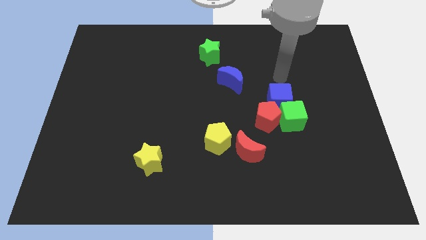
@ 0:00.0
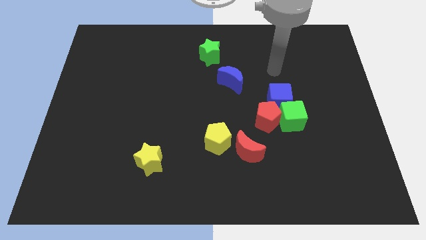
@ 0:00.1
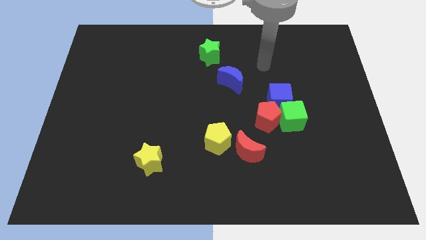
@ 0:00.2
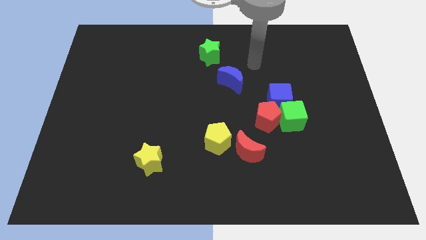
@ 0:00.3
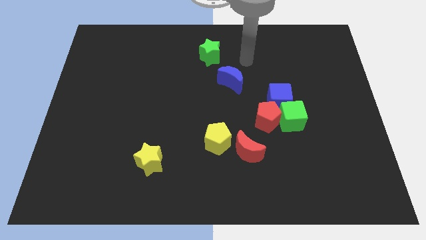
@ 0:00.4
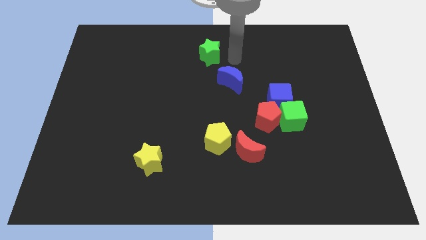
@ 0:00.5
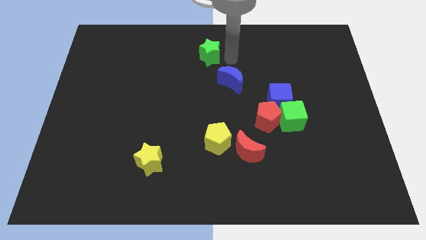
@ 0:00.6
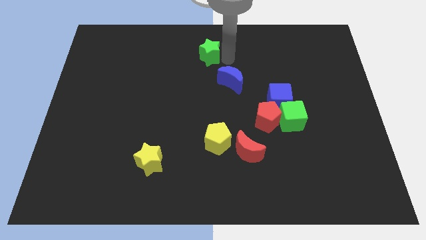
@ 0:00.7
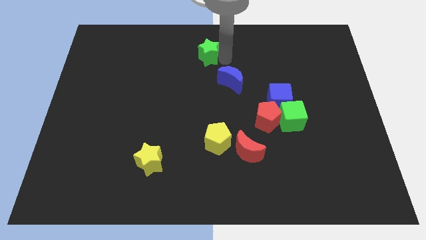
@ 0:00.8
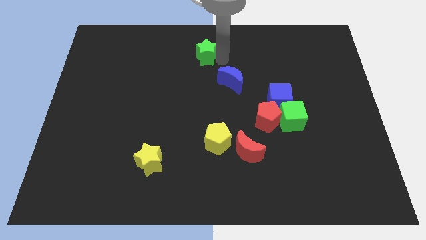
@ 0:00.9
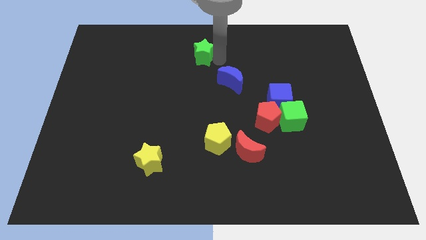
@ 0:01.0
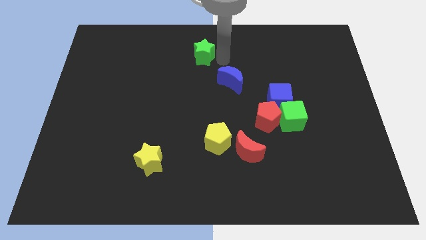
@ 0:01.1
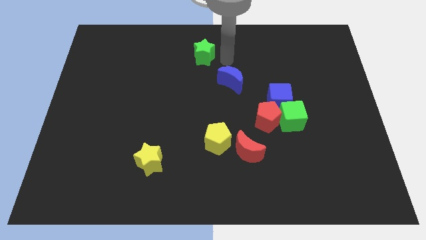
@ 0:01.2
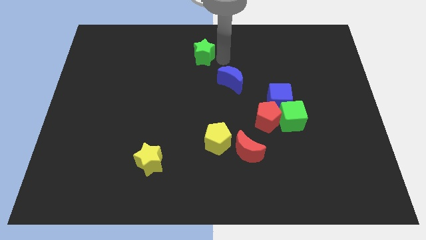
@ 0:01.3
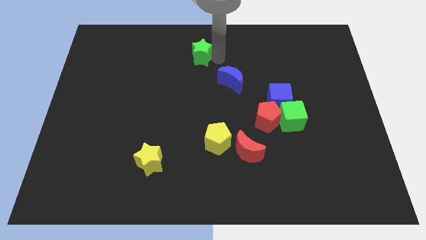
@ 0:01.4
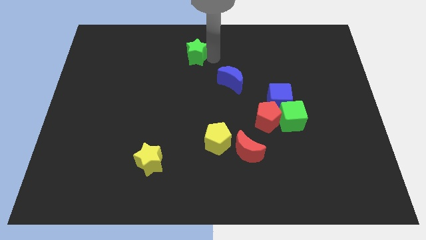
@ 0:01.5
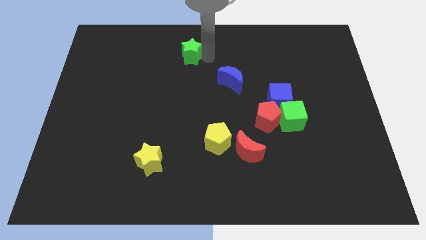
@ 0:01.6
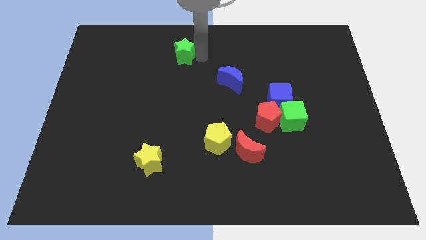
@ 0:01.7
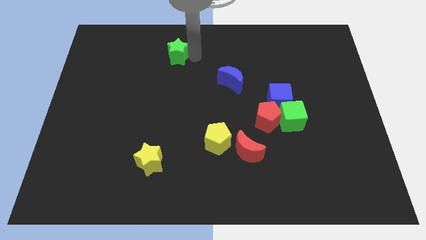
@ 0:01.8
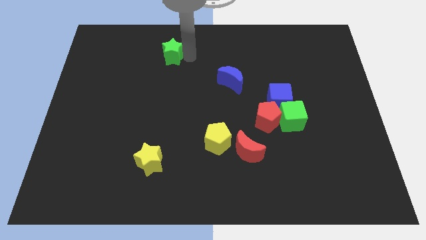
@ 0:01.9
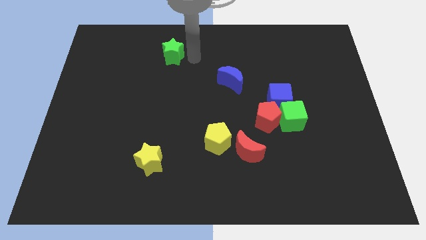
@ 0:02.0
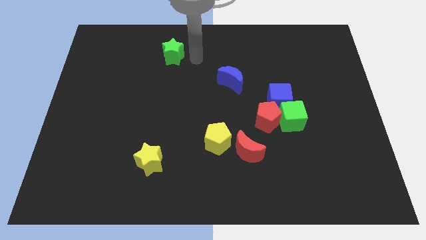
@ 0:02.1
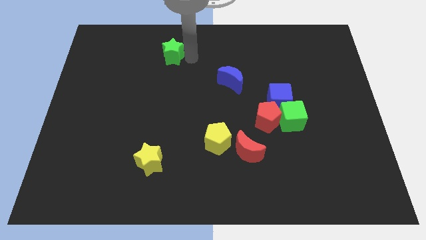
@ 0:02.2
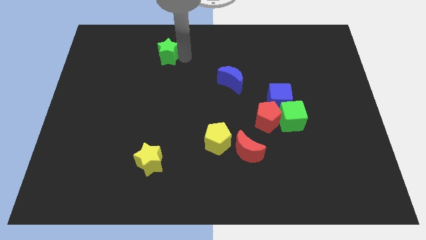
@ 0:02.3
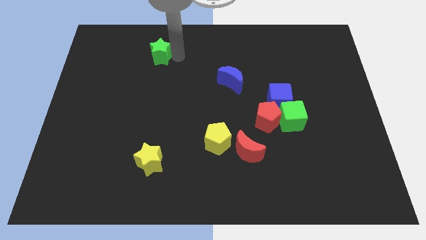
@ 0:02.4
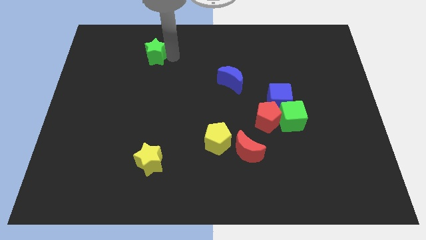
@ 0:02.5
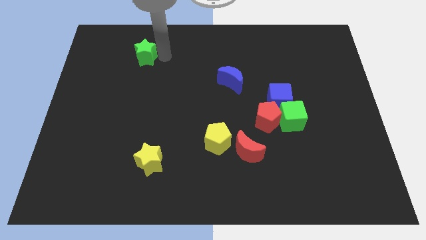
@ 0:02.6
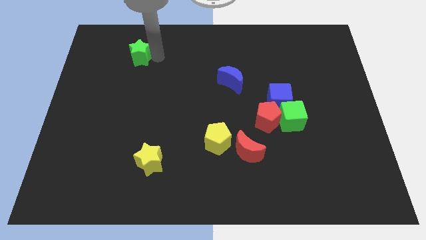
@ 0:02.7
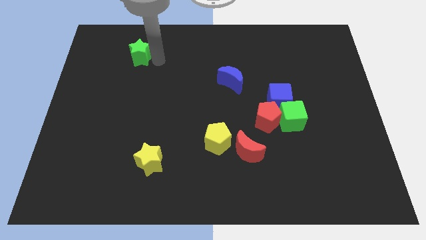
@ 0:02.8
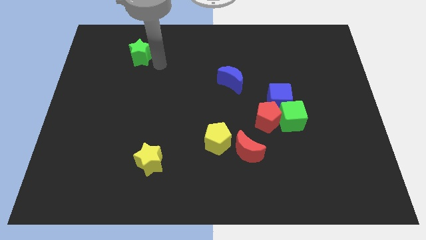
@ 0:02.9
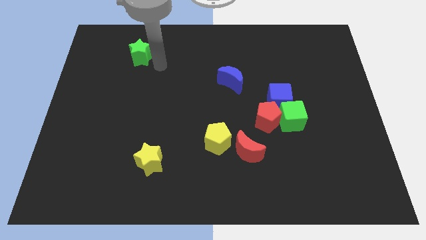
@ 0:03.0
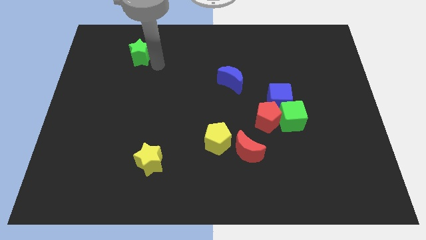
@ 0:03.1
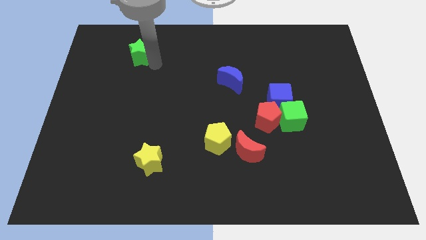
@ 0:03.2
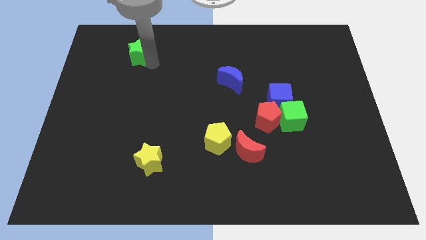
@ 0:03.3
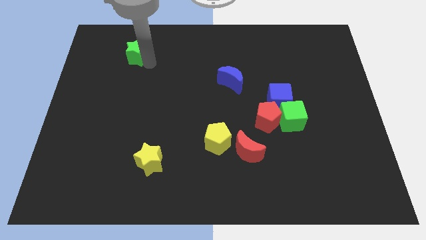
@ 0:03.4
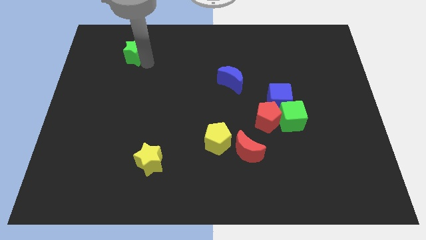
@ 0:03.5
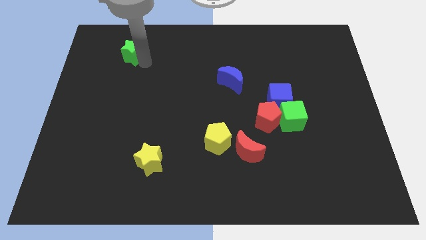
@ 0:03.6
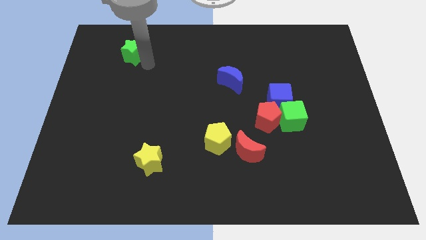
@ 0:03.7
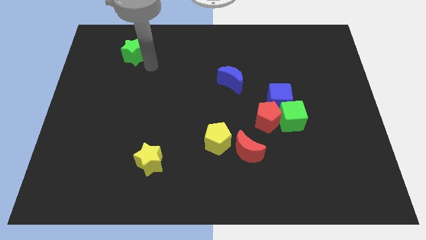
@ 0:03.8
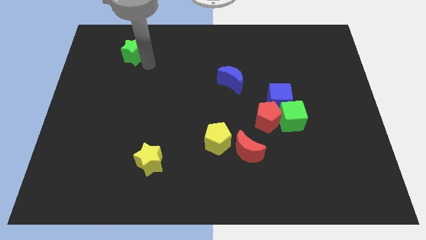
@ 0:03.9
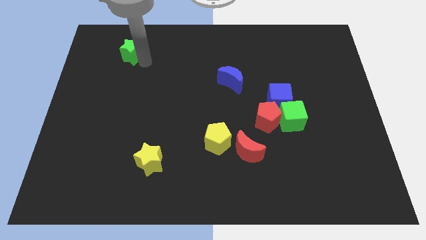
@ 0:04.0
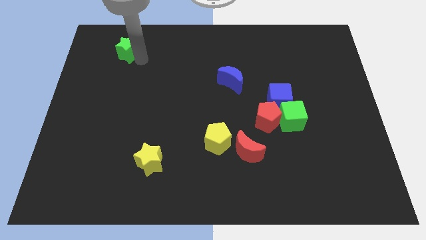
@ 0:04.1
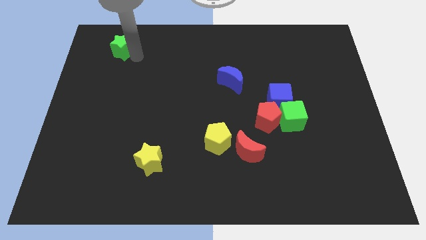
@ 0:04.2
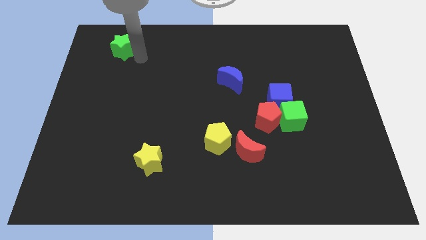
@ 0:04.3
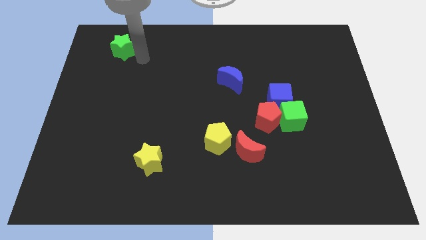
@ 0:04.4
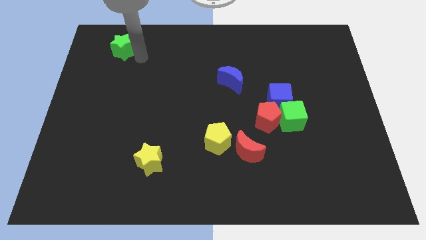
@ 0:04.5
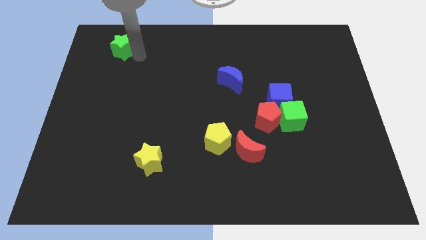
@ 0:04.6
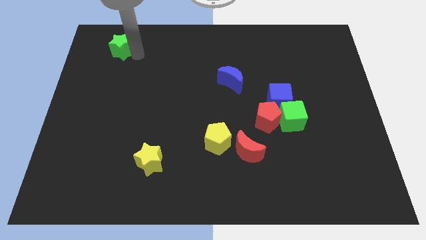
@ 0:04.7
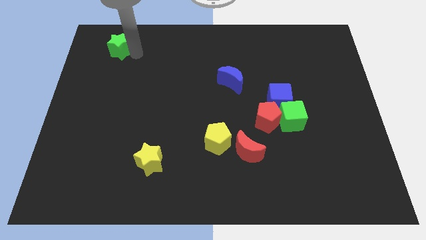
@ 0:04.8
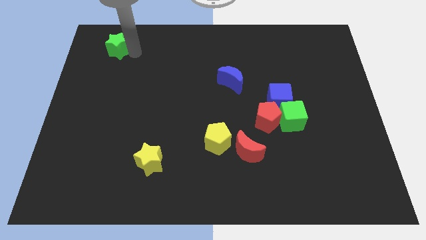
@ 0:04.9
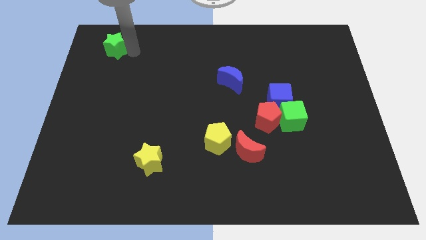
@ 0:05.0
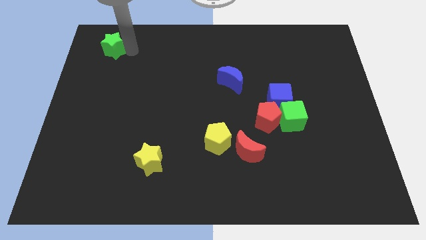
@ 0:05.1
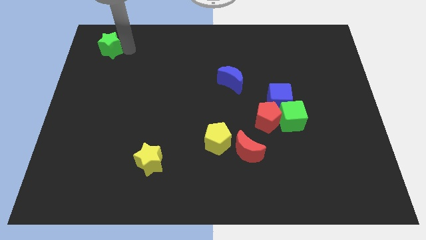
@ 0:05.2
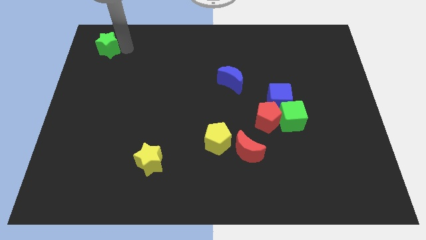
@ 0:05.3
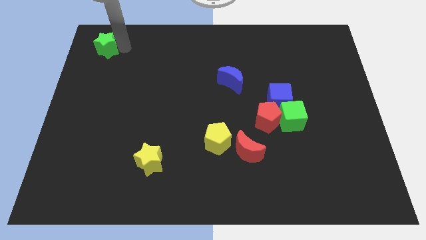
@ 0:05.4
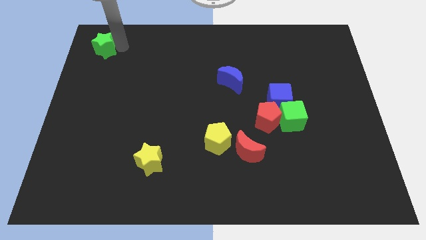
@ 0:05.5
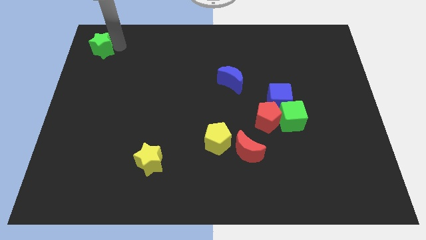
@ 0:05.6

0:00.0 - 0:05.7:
move the green star to the top left corner
